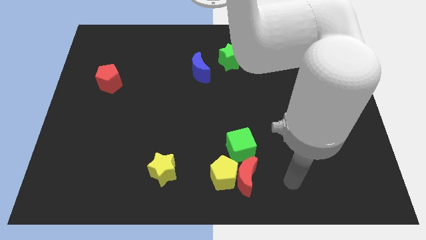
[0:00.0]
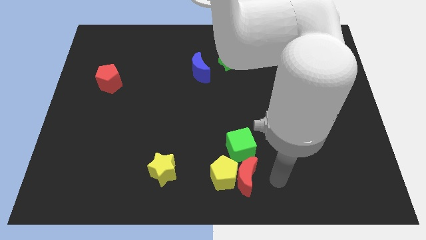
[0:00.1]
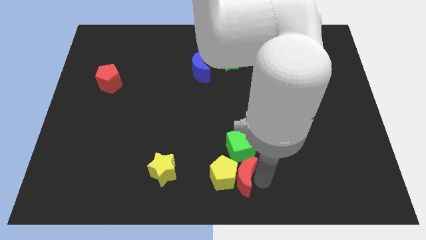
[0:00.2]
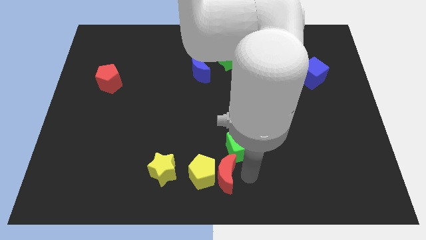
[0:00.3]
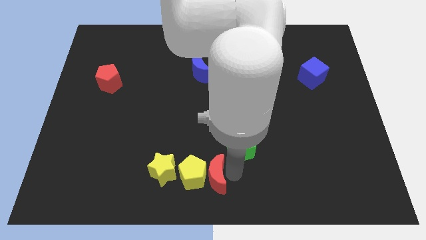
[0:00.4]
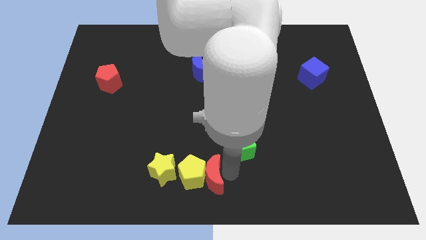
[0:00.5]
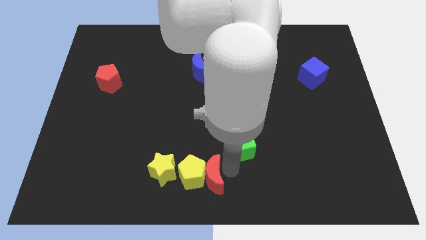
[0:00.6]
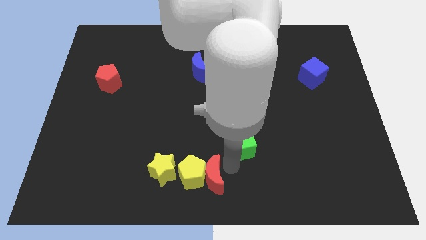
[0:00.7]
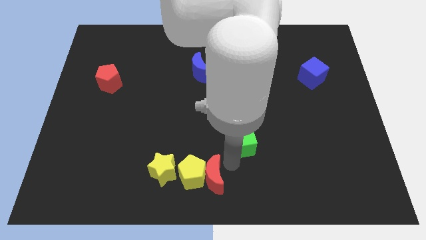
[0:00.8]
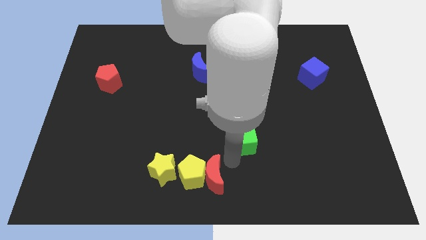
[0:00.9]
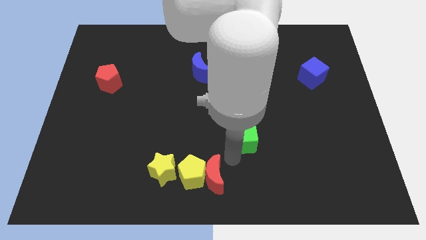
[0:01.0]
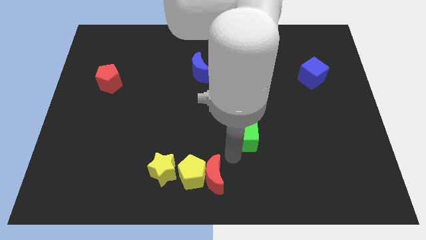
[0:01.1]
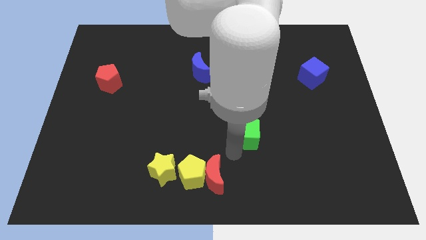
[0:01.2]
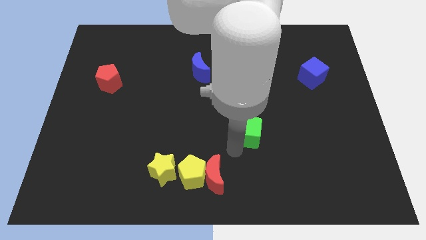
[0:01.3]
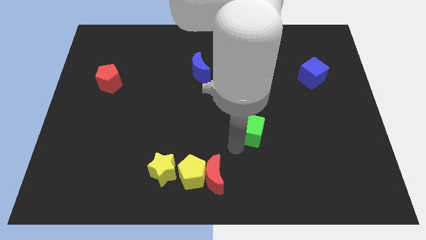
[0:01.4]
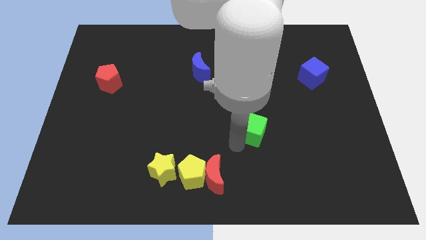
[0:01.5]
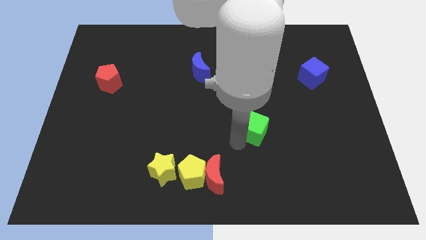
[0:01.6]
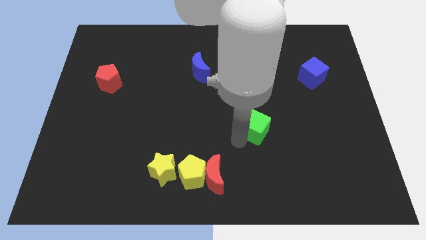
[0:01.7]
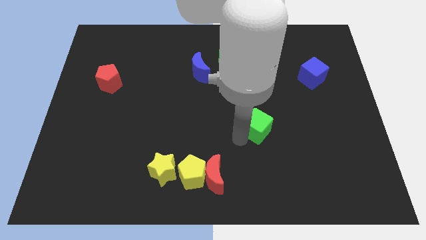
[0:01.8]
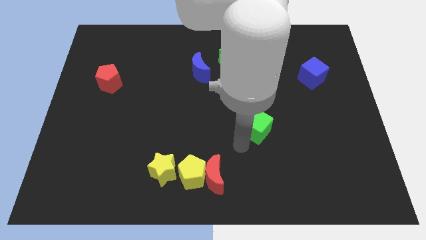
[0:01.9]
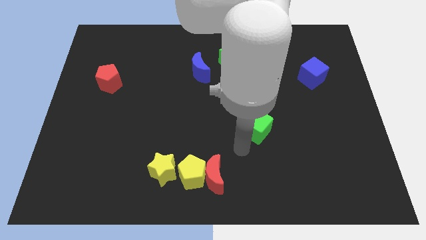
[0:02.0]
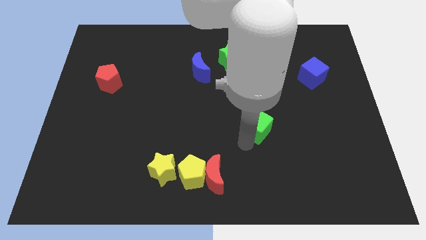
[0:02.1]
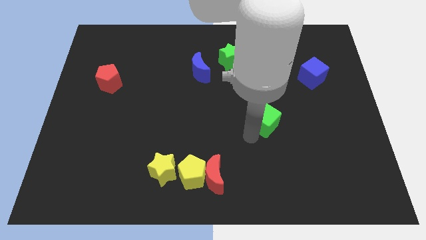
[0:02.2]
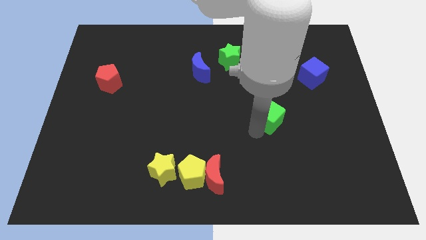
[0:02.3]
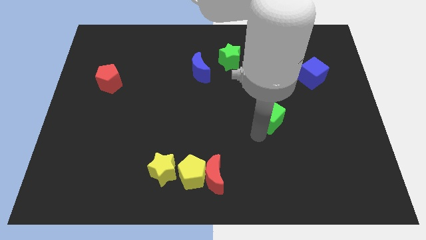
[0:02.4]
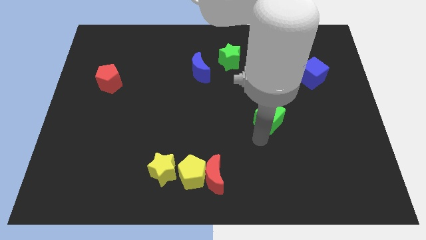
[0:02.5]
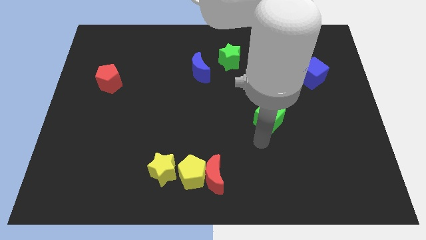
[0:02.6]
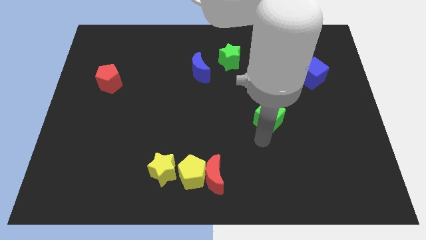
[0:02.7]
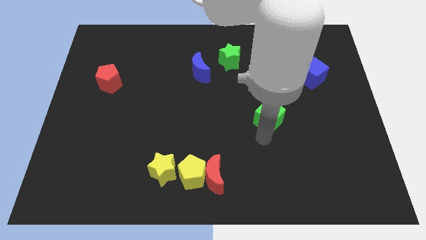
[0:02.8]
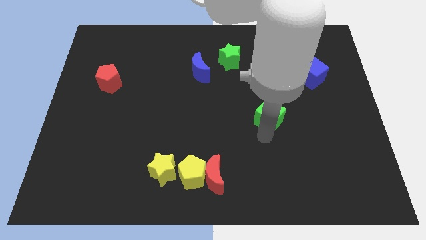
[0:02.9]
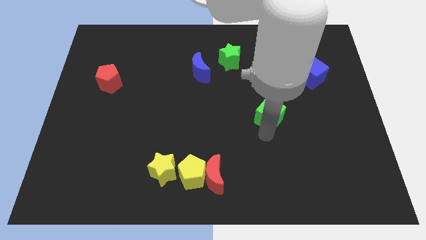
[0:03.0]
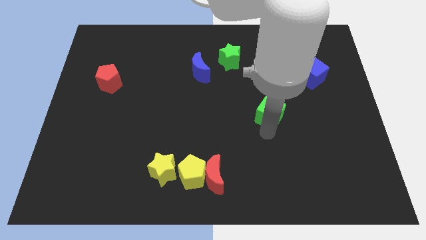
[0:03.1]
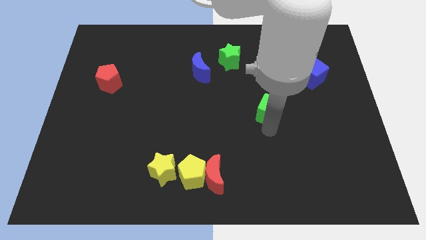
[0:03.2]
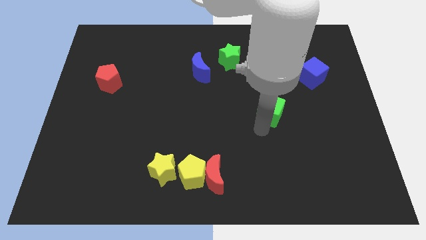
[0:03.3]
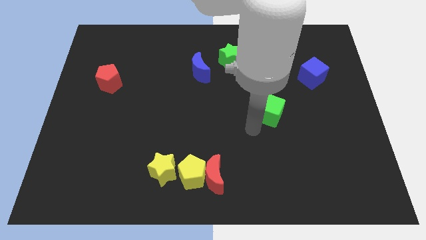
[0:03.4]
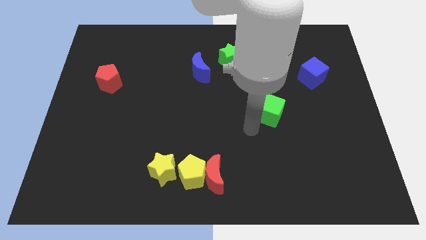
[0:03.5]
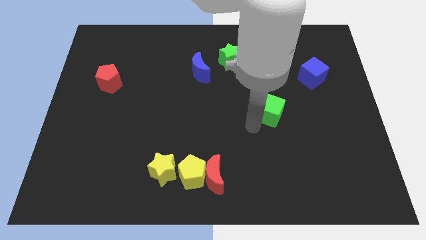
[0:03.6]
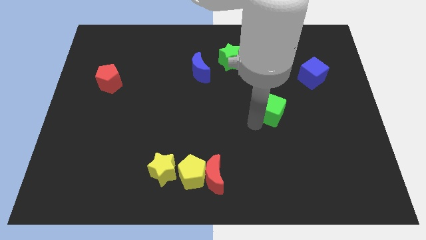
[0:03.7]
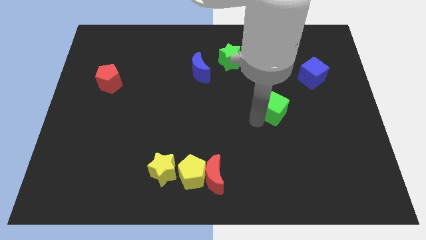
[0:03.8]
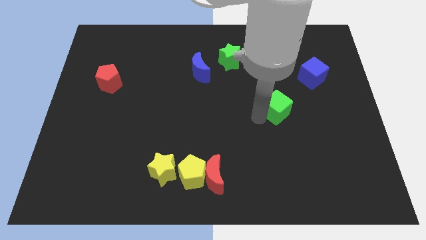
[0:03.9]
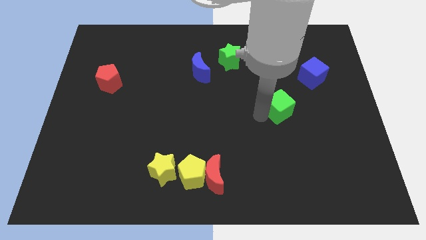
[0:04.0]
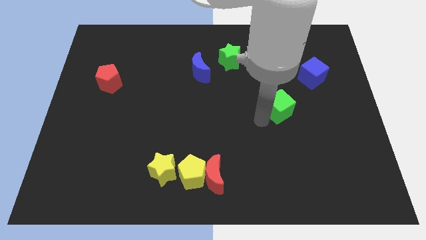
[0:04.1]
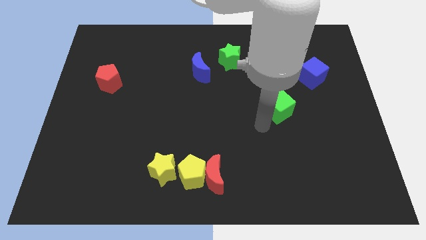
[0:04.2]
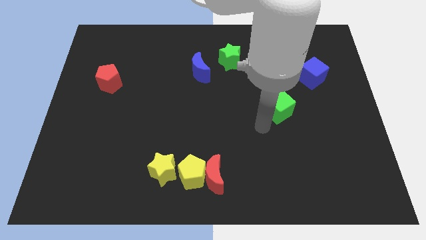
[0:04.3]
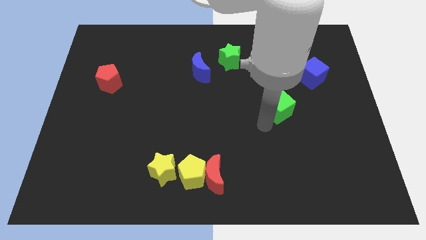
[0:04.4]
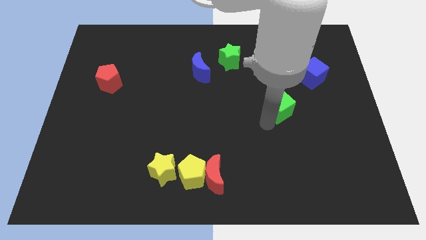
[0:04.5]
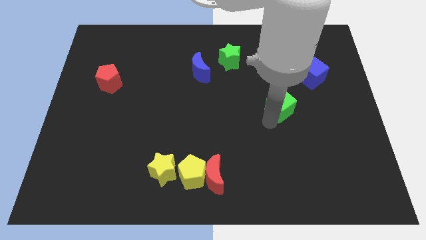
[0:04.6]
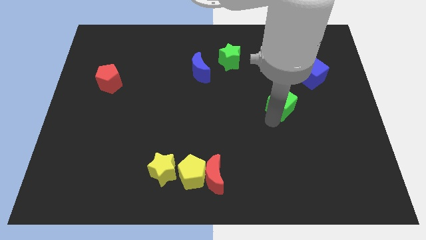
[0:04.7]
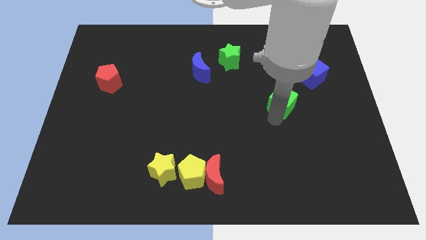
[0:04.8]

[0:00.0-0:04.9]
slide the green cube to the bottom left of the blue cube

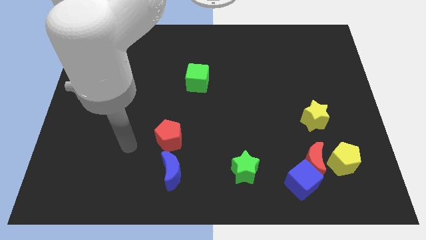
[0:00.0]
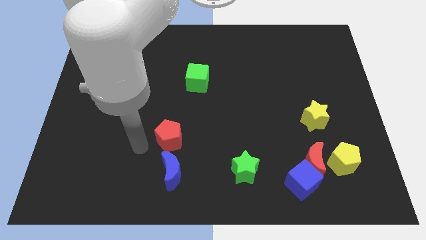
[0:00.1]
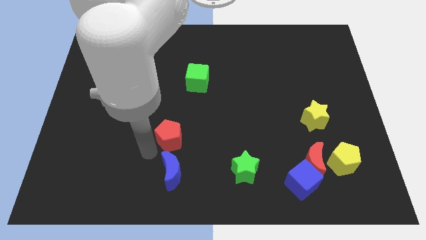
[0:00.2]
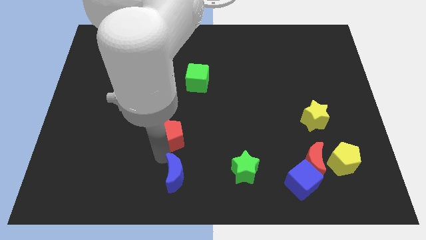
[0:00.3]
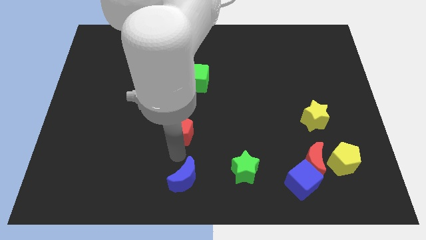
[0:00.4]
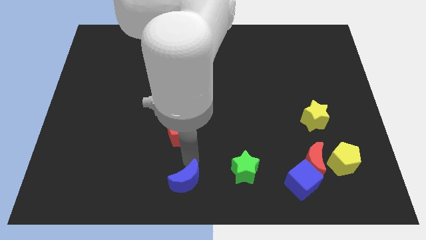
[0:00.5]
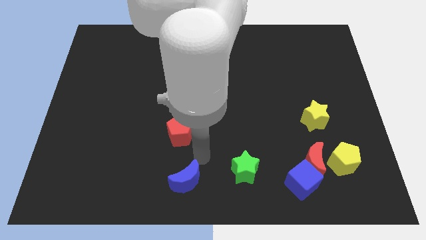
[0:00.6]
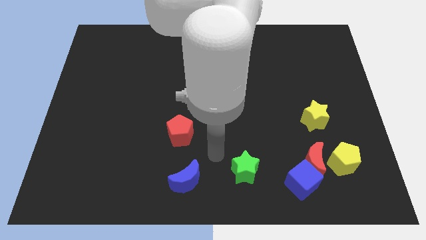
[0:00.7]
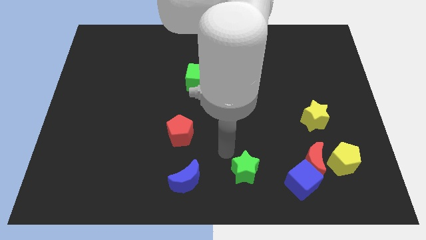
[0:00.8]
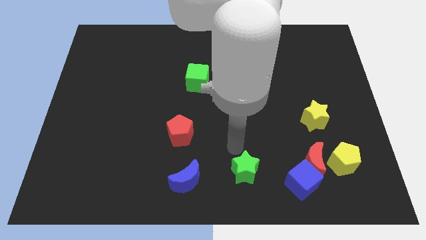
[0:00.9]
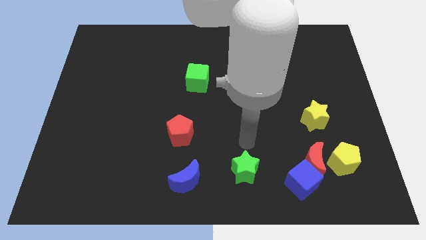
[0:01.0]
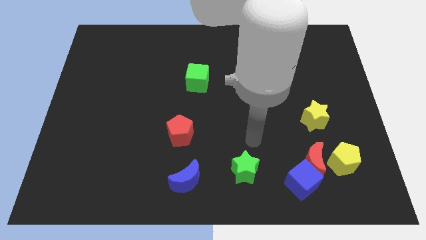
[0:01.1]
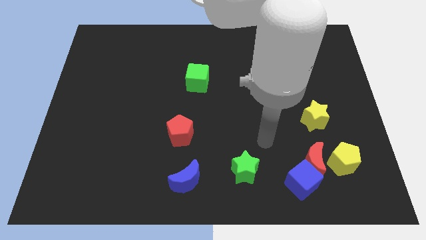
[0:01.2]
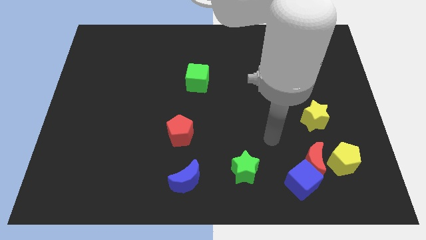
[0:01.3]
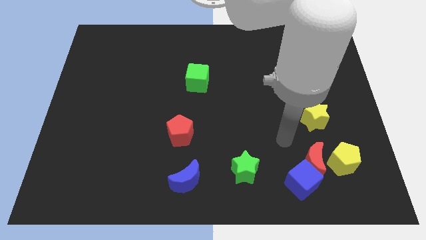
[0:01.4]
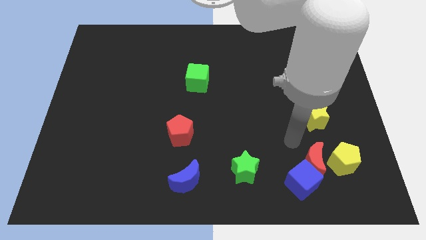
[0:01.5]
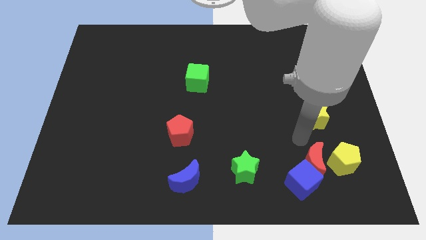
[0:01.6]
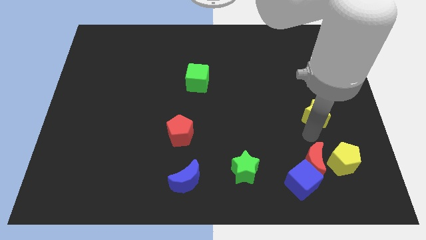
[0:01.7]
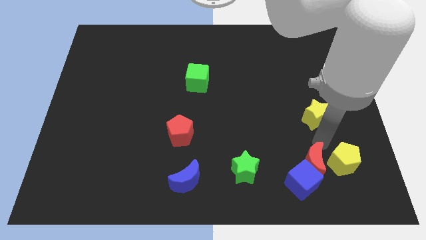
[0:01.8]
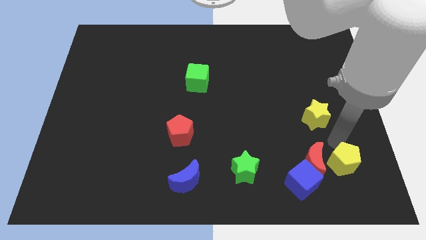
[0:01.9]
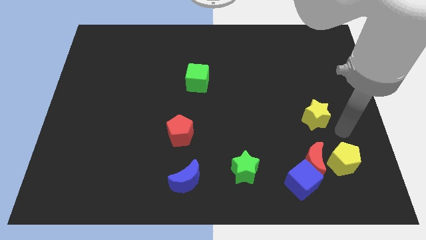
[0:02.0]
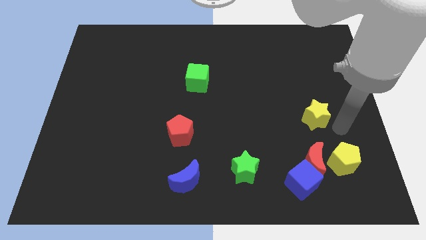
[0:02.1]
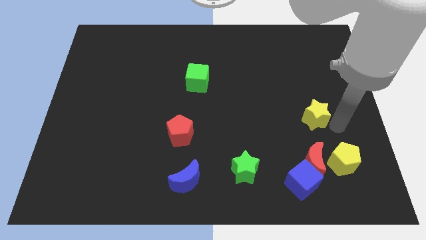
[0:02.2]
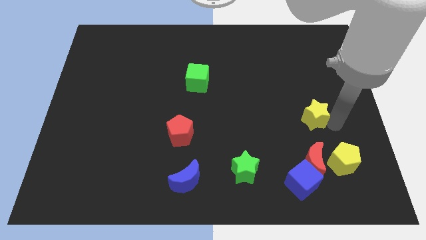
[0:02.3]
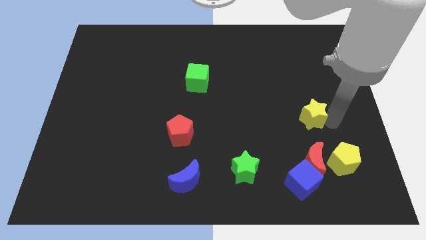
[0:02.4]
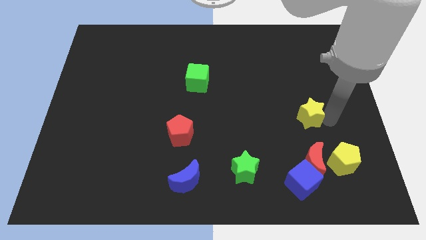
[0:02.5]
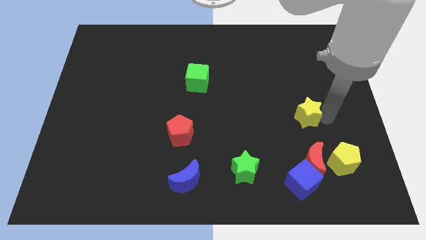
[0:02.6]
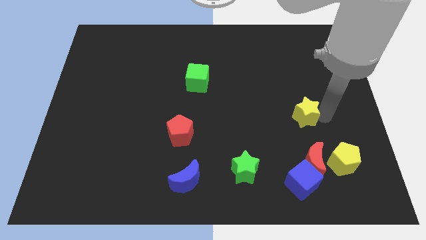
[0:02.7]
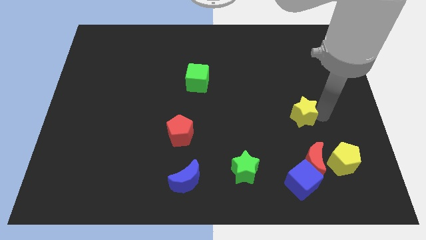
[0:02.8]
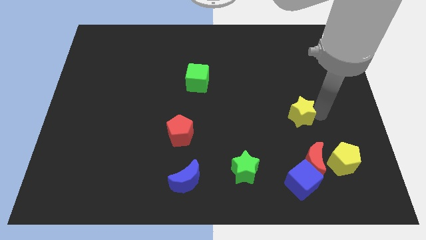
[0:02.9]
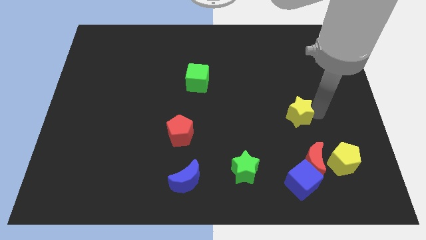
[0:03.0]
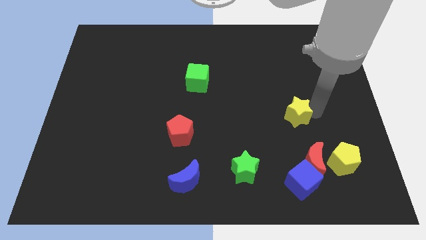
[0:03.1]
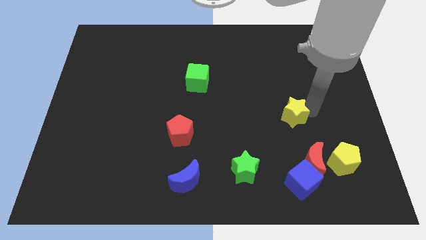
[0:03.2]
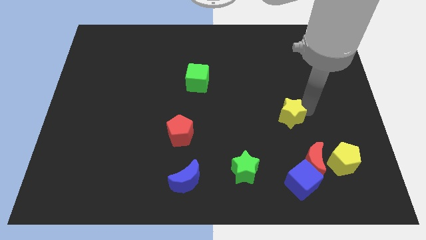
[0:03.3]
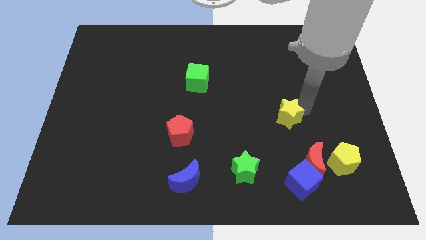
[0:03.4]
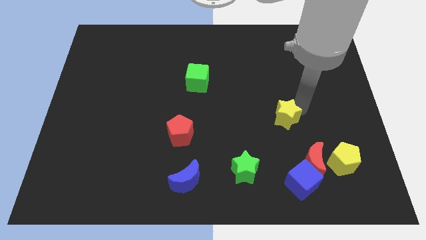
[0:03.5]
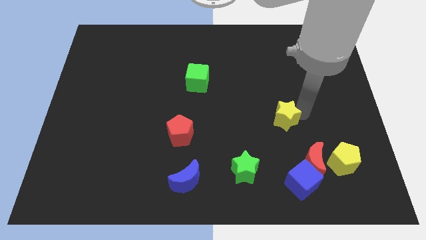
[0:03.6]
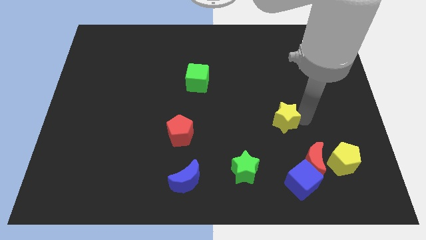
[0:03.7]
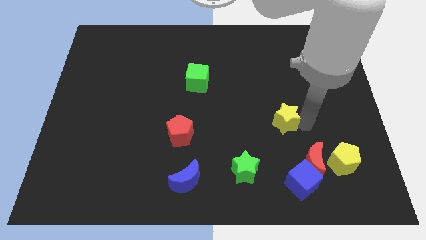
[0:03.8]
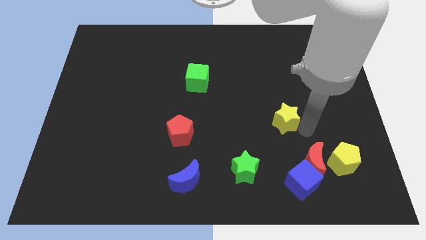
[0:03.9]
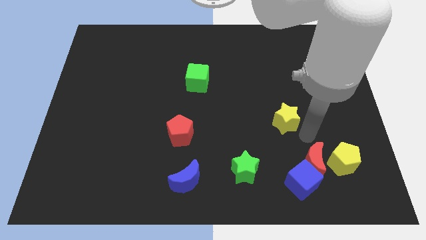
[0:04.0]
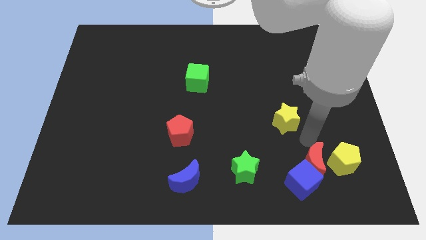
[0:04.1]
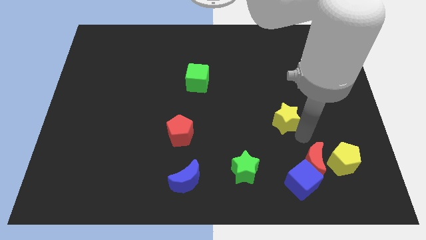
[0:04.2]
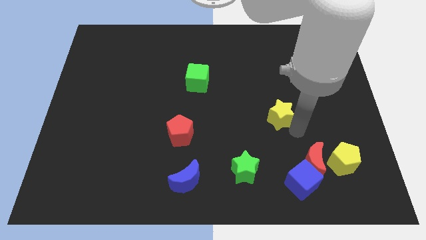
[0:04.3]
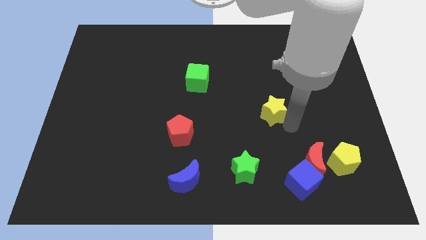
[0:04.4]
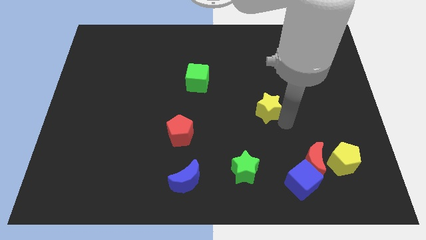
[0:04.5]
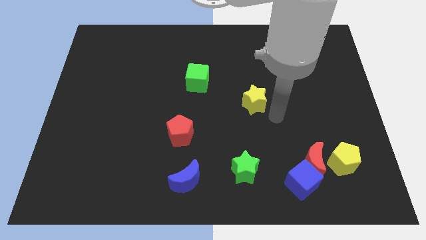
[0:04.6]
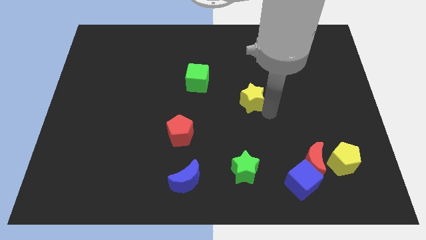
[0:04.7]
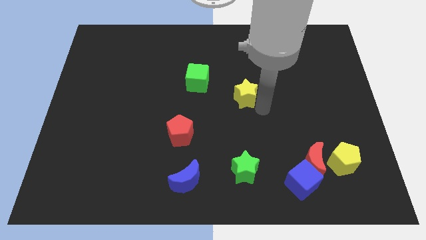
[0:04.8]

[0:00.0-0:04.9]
put the yellow star to the right of the green cube
